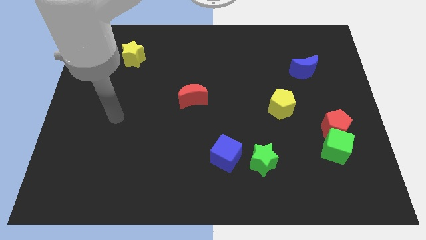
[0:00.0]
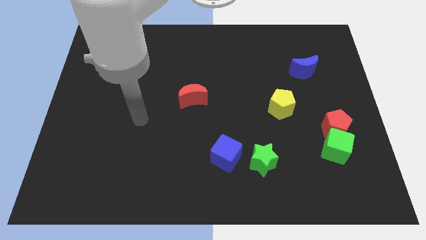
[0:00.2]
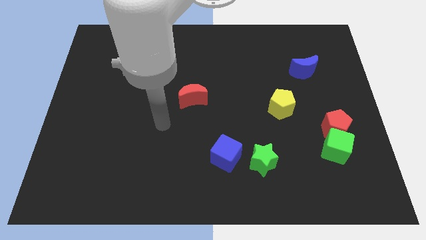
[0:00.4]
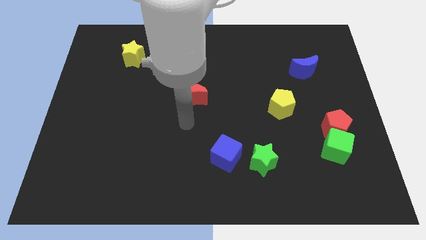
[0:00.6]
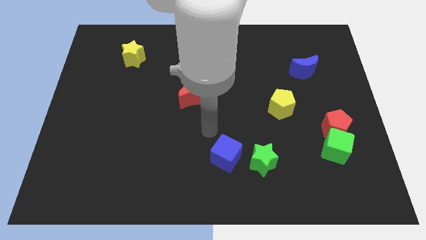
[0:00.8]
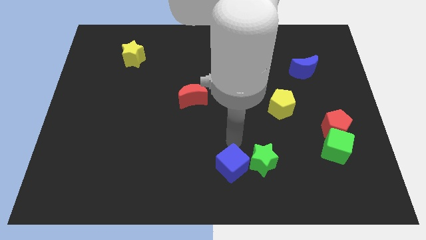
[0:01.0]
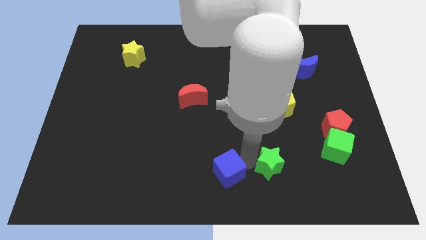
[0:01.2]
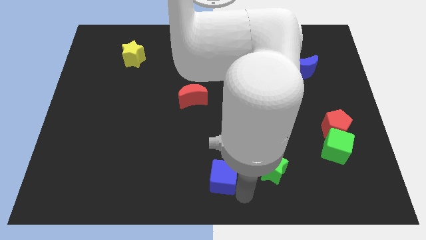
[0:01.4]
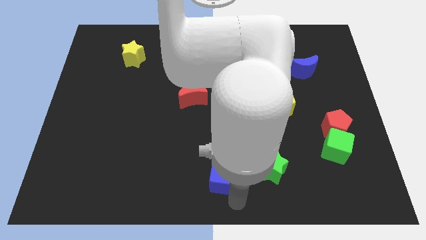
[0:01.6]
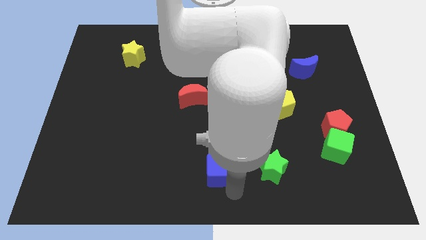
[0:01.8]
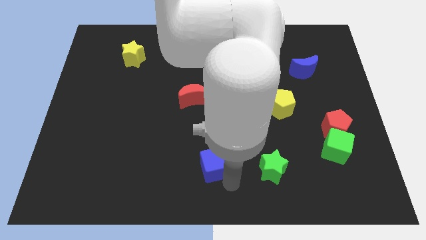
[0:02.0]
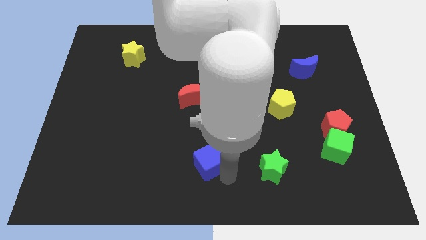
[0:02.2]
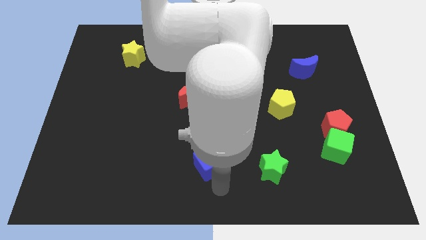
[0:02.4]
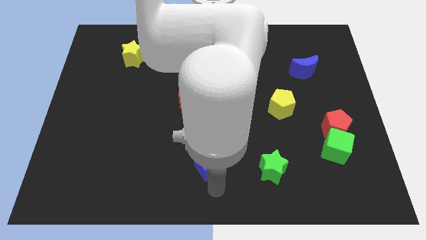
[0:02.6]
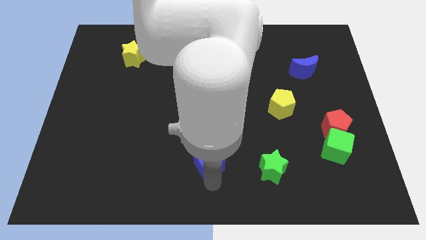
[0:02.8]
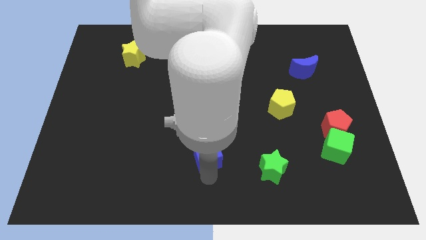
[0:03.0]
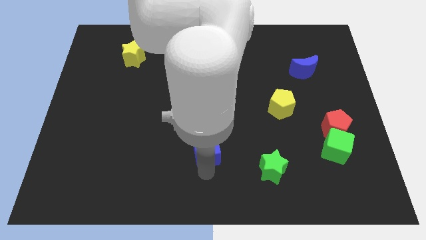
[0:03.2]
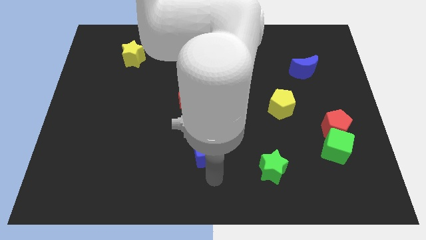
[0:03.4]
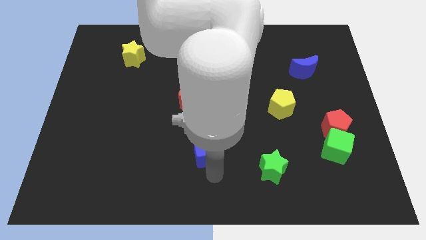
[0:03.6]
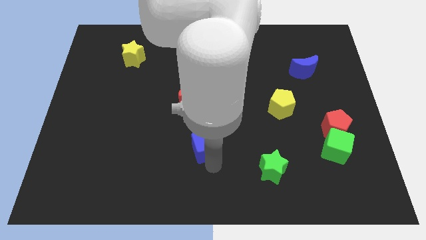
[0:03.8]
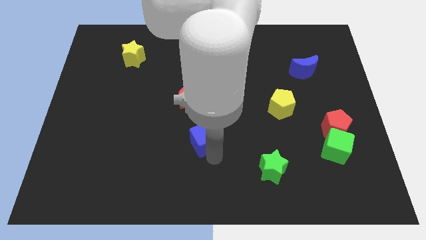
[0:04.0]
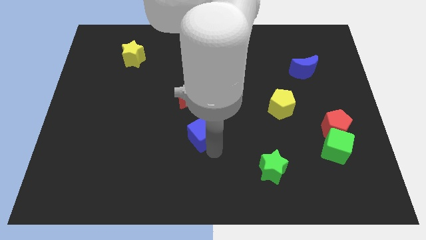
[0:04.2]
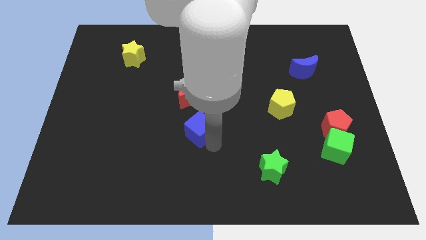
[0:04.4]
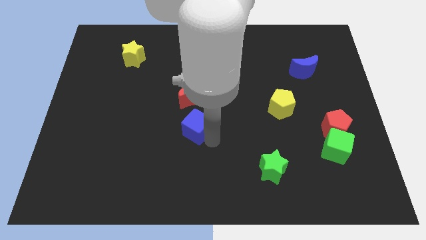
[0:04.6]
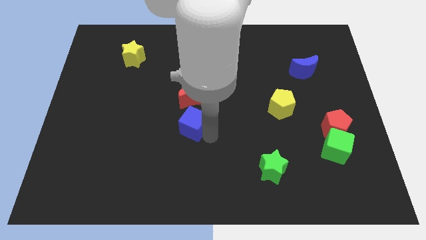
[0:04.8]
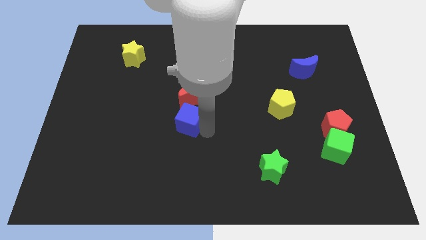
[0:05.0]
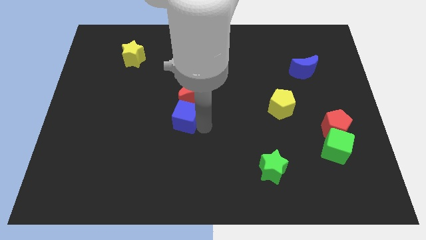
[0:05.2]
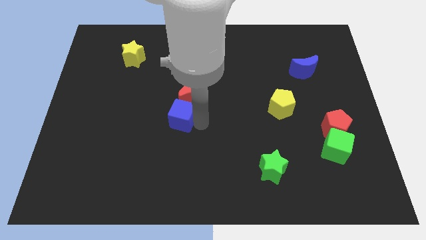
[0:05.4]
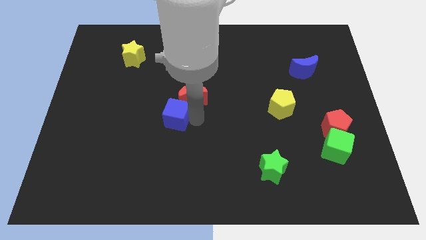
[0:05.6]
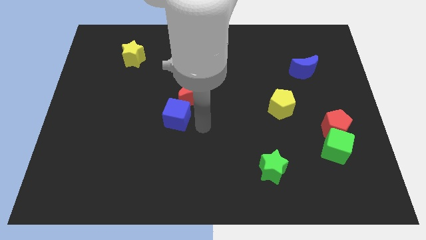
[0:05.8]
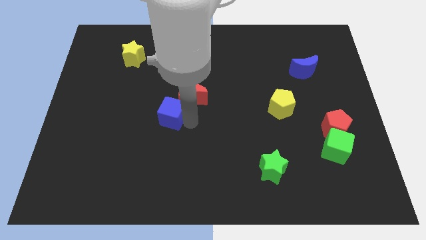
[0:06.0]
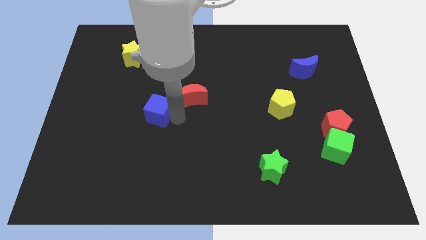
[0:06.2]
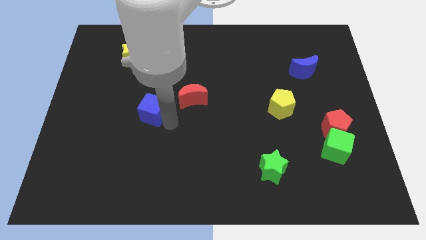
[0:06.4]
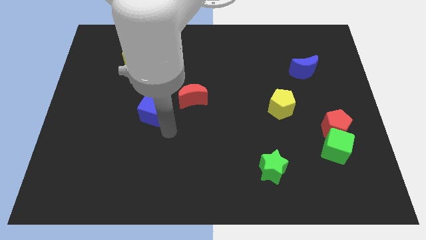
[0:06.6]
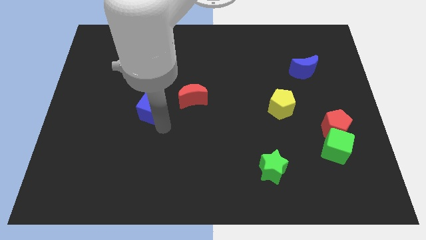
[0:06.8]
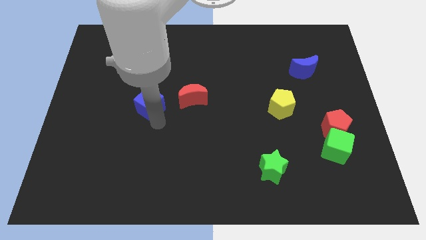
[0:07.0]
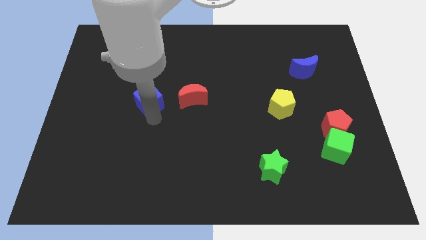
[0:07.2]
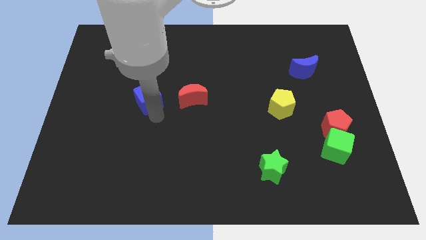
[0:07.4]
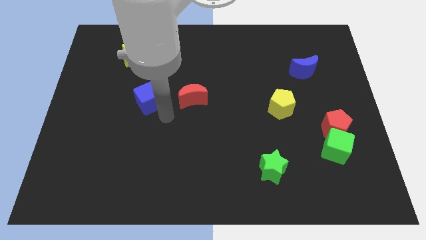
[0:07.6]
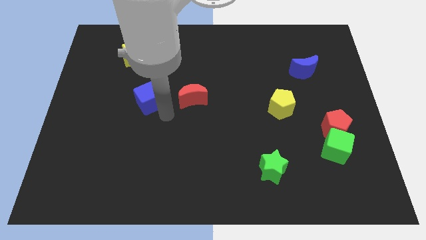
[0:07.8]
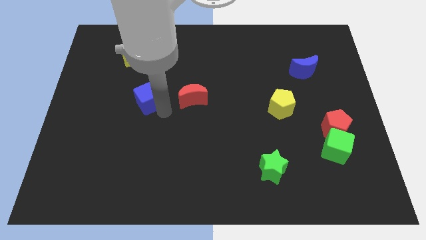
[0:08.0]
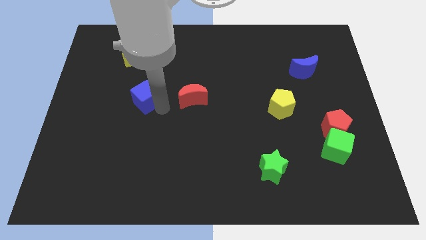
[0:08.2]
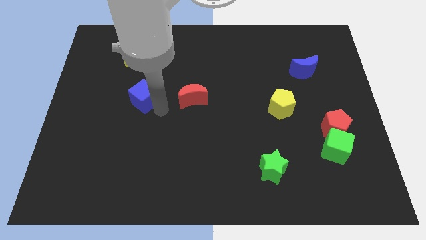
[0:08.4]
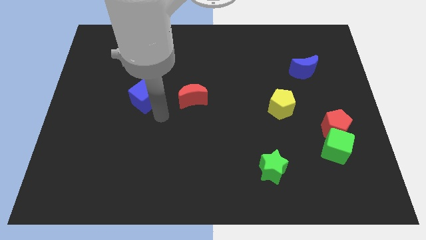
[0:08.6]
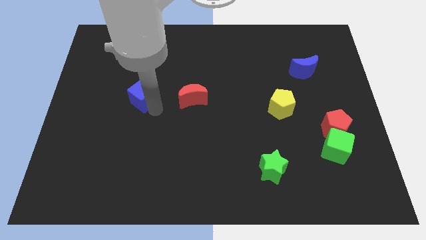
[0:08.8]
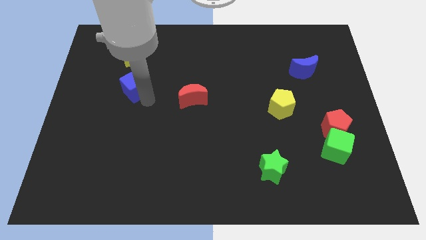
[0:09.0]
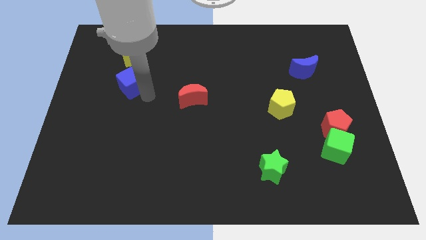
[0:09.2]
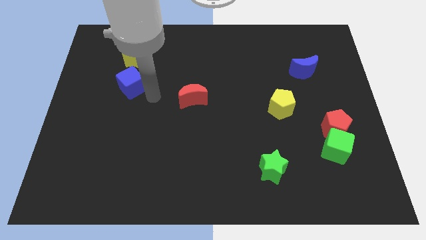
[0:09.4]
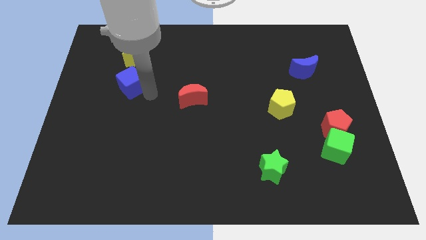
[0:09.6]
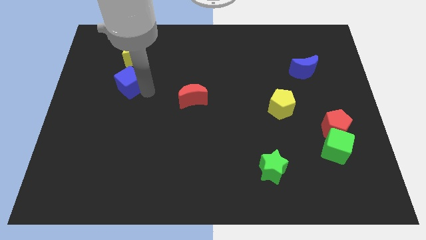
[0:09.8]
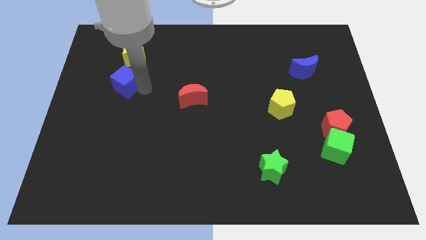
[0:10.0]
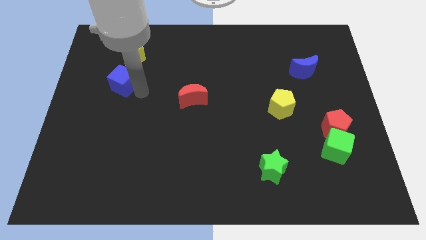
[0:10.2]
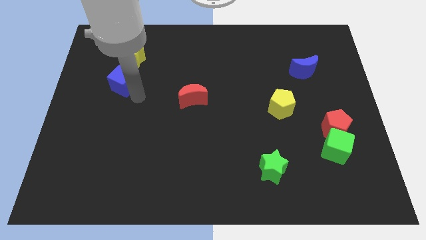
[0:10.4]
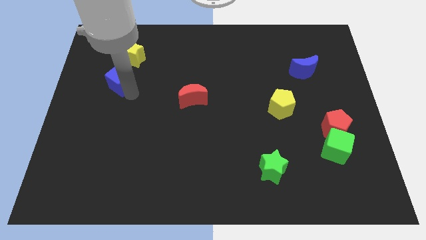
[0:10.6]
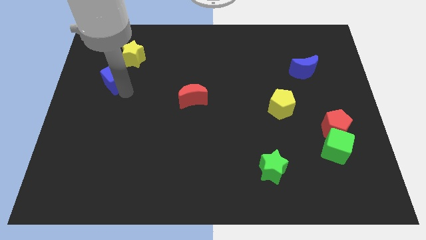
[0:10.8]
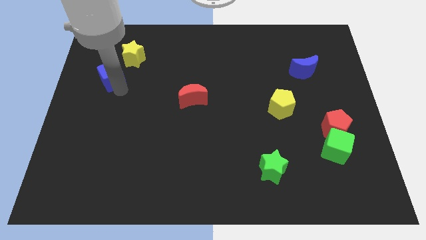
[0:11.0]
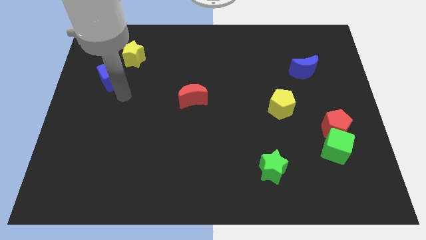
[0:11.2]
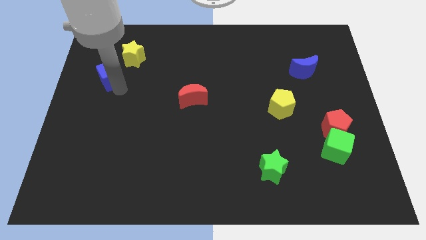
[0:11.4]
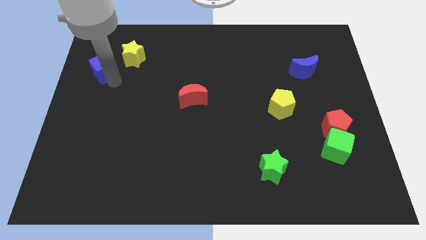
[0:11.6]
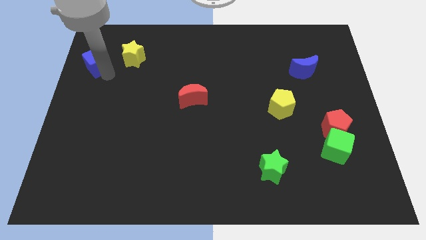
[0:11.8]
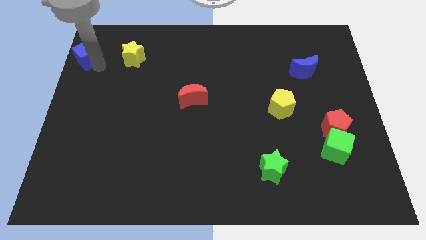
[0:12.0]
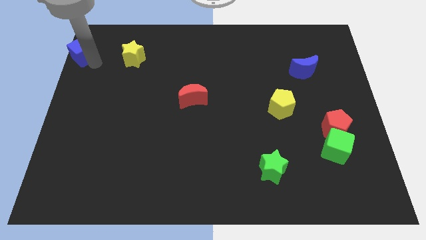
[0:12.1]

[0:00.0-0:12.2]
put the blue cube to the top left of the board
